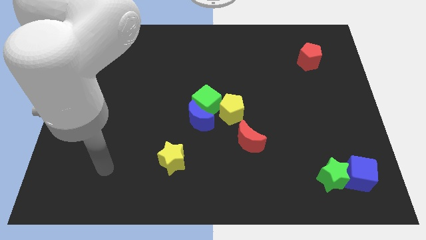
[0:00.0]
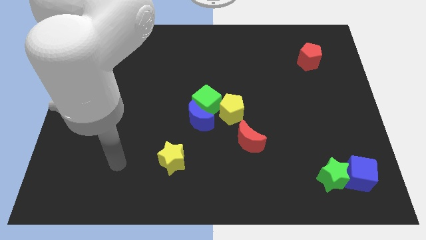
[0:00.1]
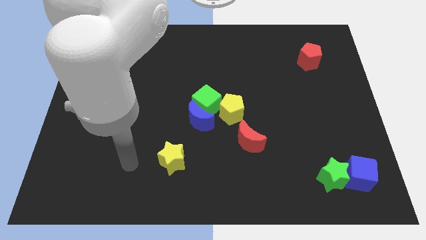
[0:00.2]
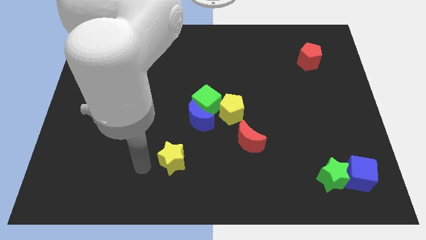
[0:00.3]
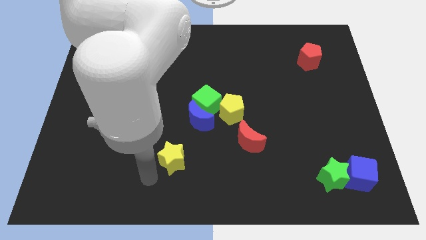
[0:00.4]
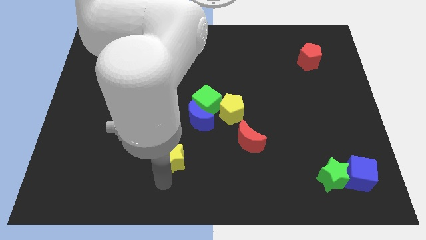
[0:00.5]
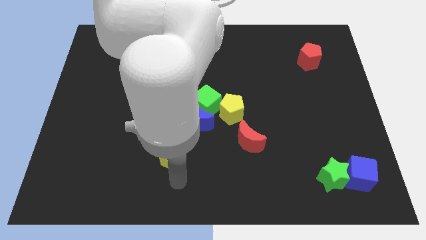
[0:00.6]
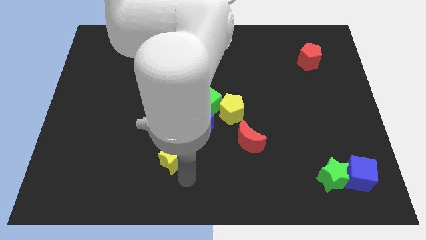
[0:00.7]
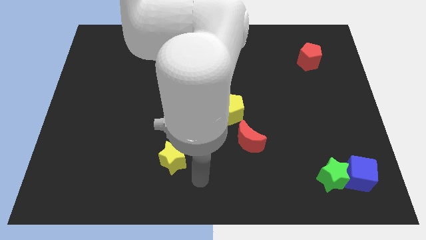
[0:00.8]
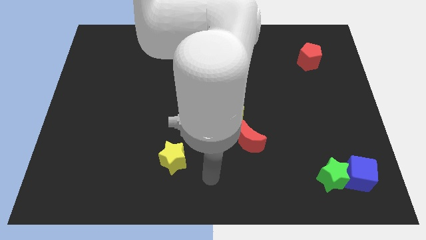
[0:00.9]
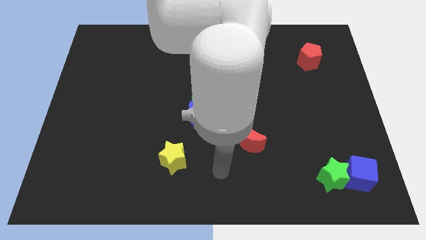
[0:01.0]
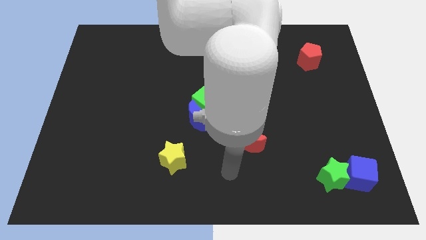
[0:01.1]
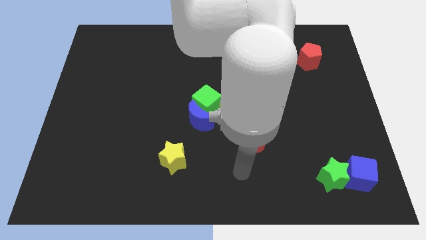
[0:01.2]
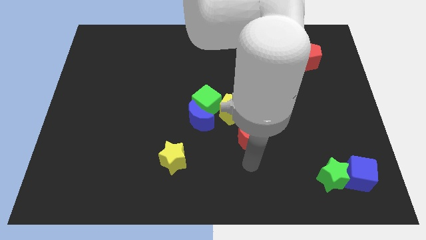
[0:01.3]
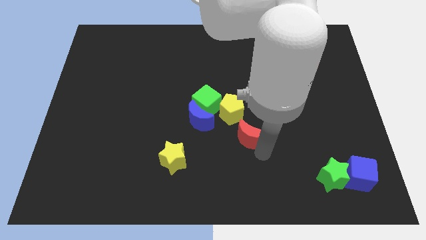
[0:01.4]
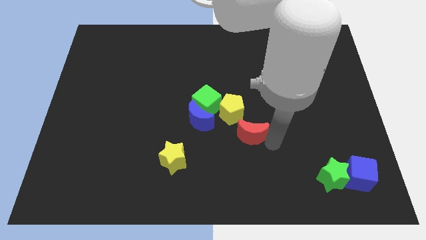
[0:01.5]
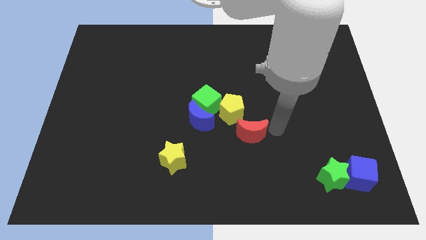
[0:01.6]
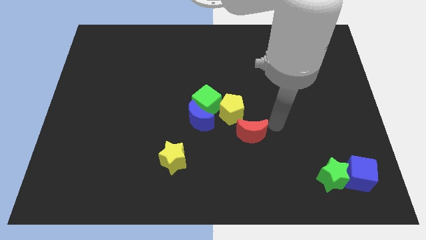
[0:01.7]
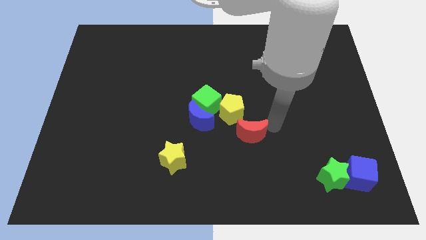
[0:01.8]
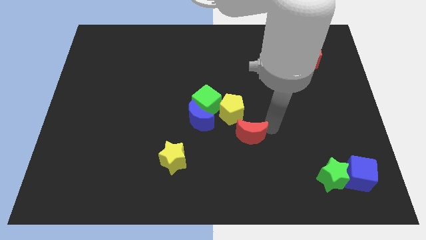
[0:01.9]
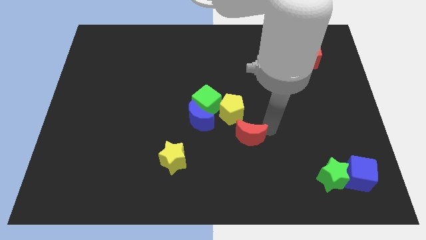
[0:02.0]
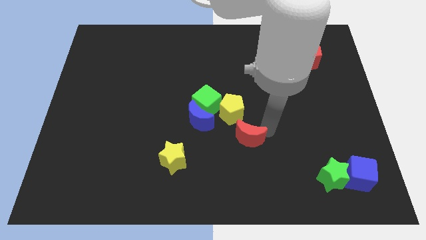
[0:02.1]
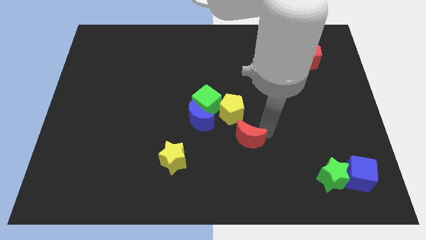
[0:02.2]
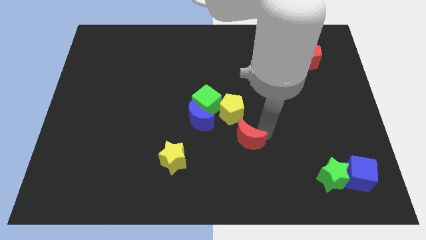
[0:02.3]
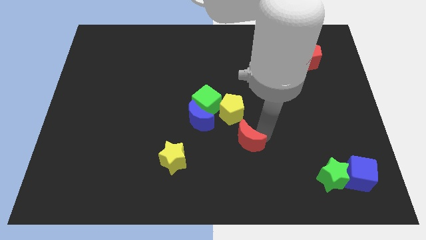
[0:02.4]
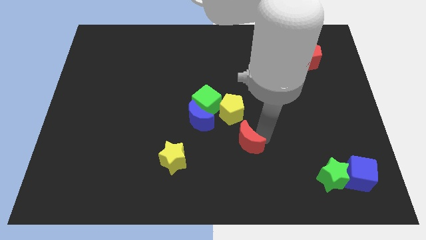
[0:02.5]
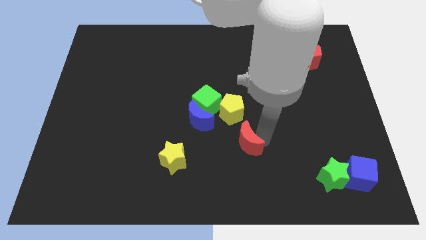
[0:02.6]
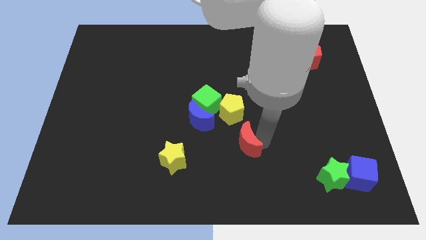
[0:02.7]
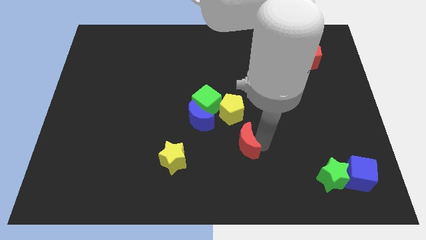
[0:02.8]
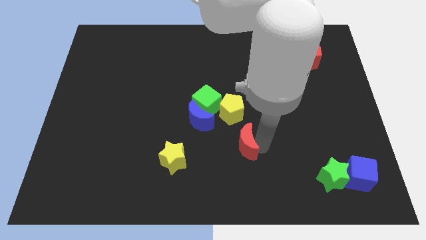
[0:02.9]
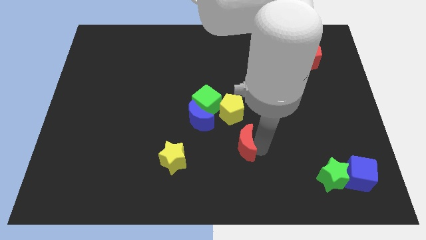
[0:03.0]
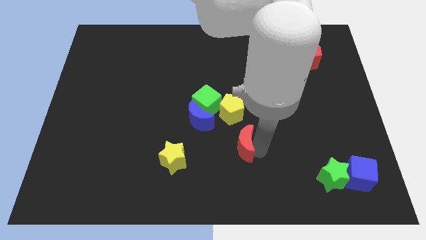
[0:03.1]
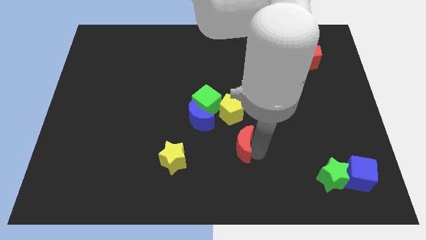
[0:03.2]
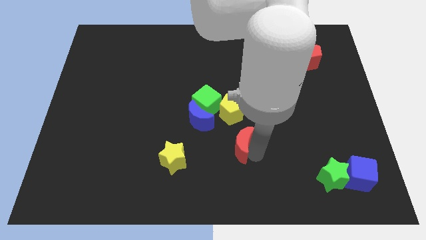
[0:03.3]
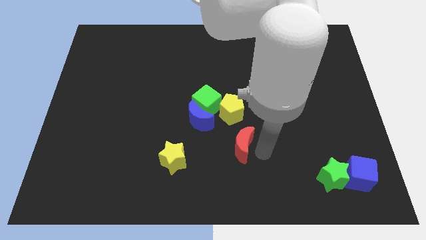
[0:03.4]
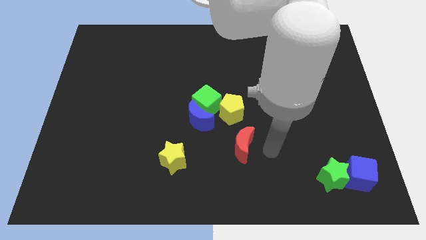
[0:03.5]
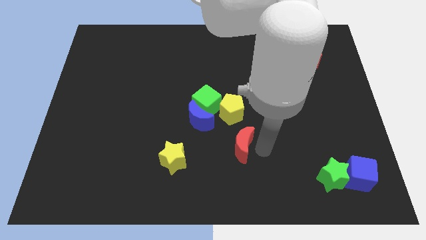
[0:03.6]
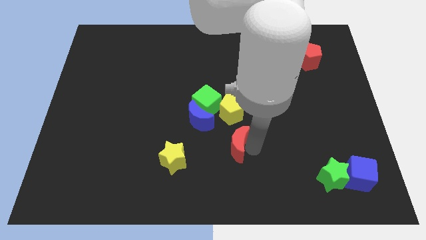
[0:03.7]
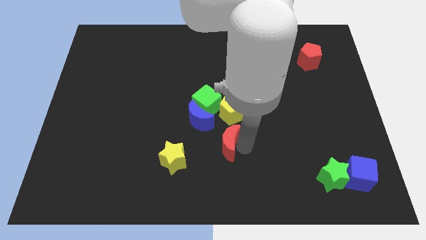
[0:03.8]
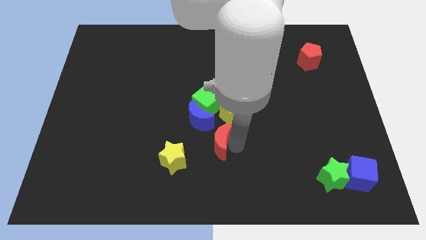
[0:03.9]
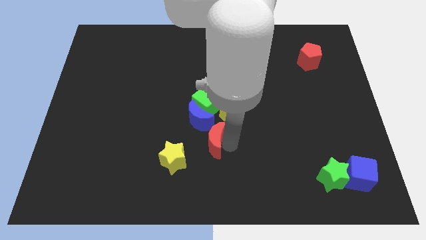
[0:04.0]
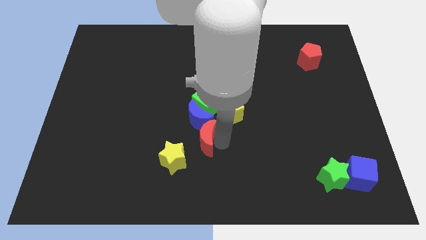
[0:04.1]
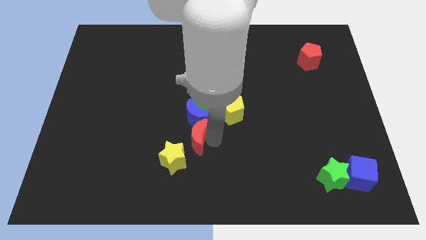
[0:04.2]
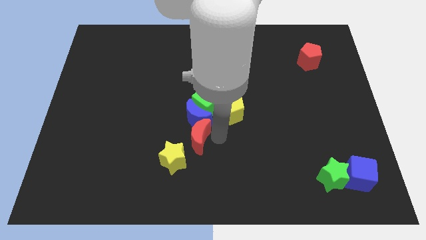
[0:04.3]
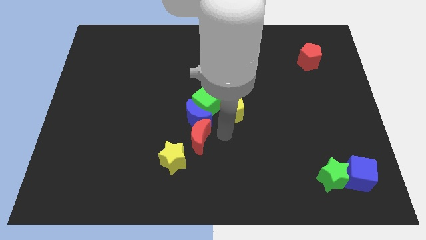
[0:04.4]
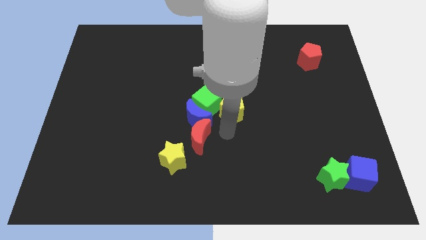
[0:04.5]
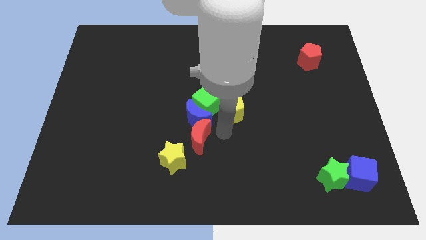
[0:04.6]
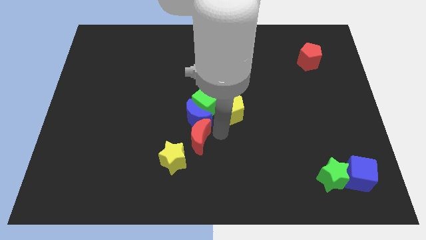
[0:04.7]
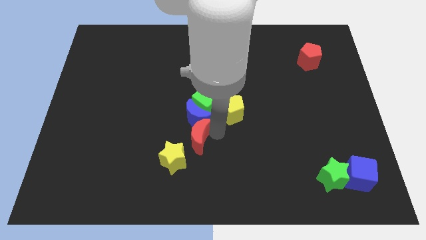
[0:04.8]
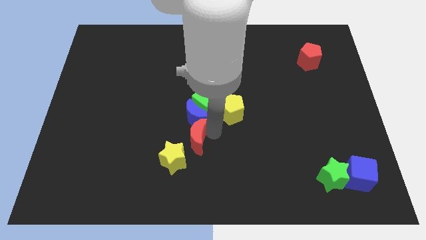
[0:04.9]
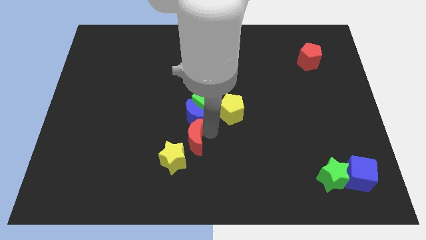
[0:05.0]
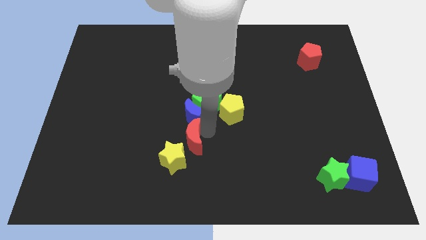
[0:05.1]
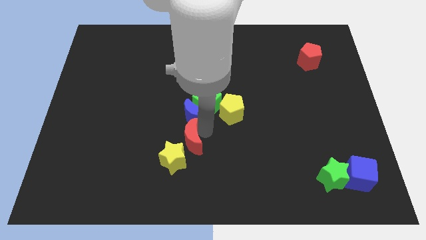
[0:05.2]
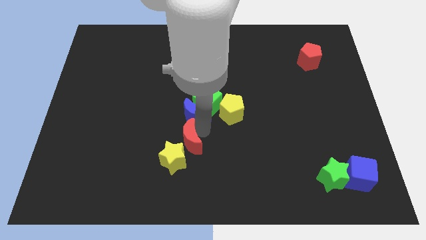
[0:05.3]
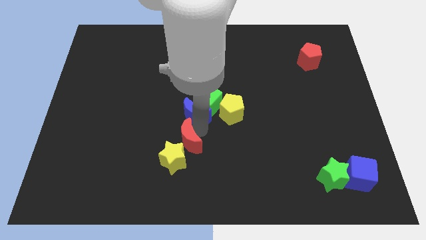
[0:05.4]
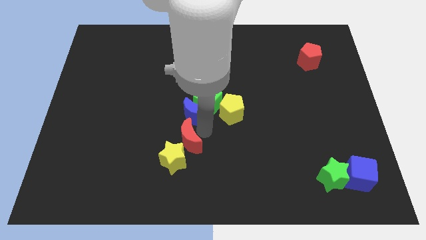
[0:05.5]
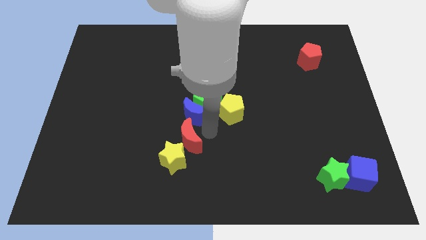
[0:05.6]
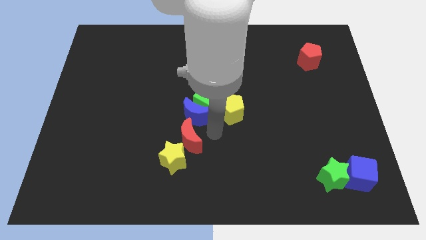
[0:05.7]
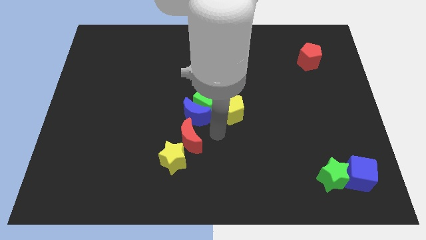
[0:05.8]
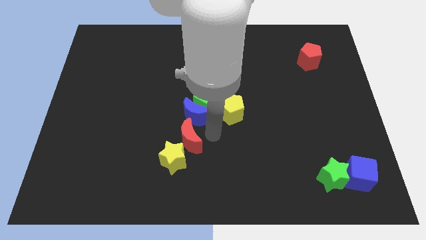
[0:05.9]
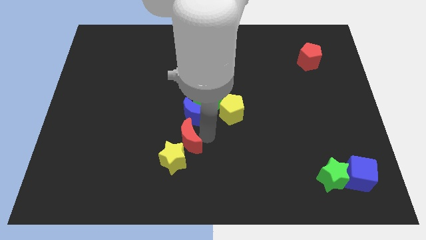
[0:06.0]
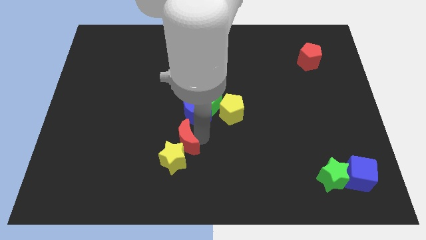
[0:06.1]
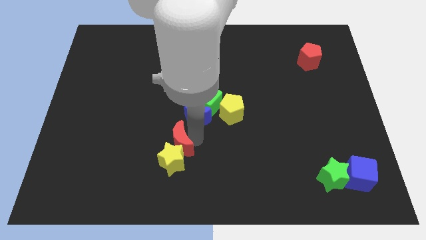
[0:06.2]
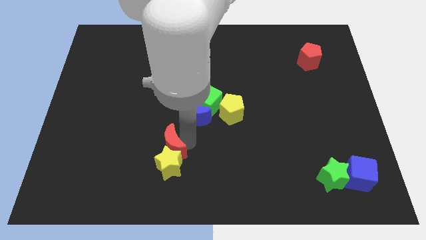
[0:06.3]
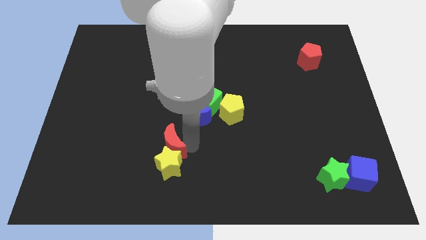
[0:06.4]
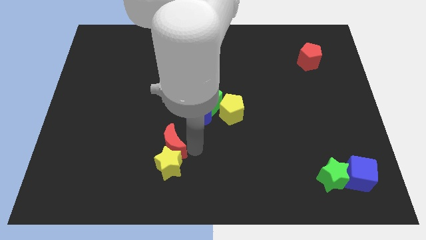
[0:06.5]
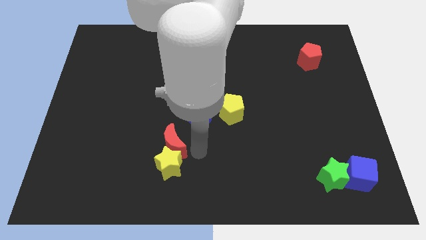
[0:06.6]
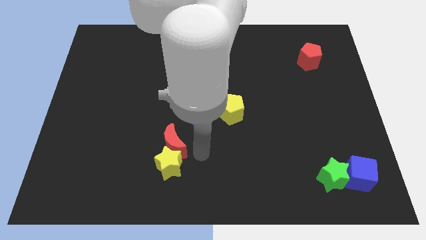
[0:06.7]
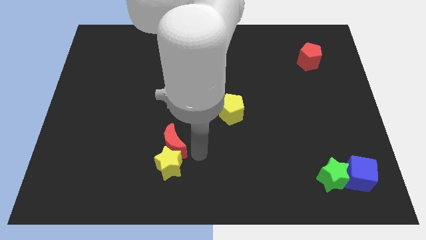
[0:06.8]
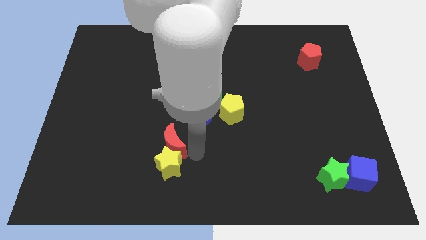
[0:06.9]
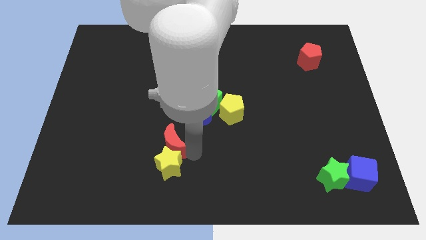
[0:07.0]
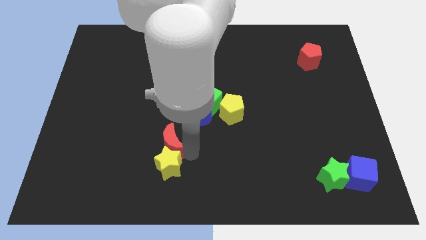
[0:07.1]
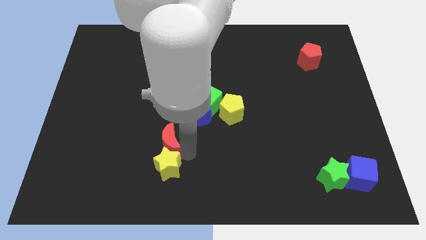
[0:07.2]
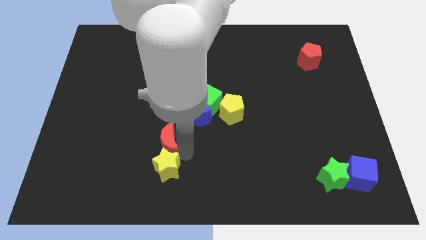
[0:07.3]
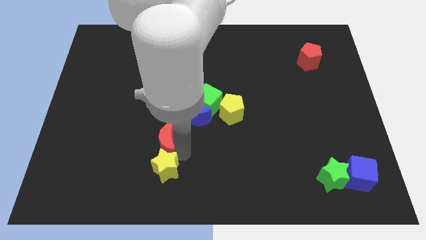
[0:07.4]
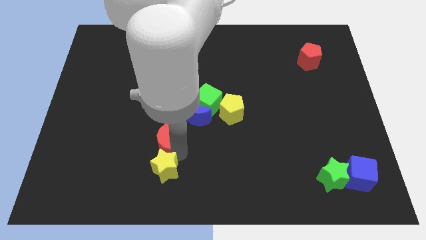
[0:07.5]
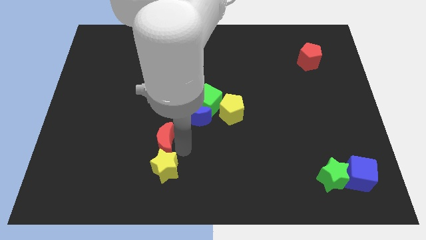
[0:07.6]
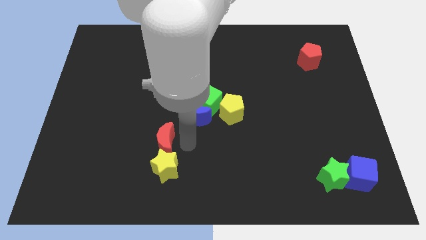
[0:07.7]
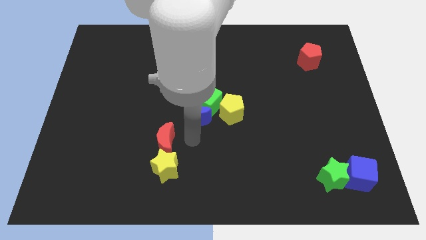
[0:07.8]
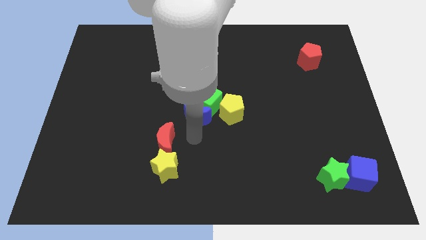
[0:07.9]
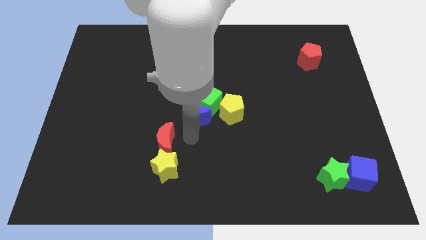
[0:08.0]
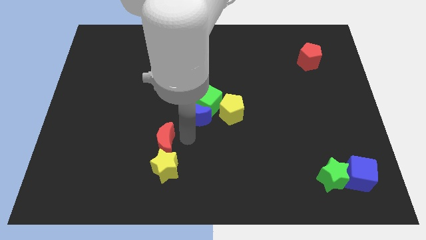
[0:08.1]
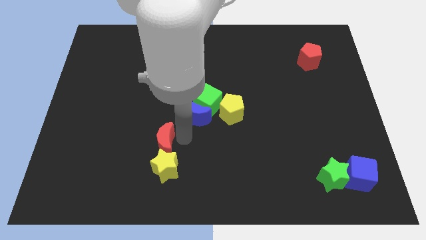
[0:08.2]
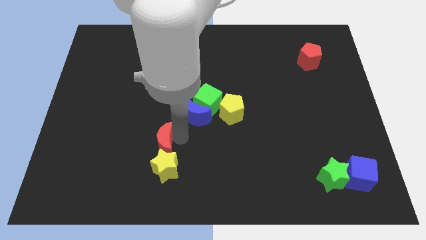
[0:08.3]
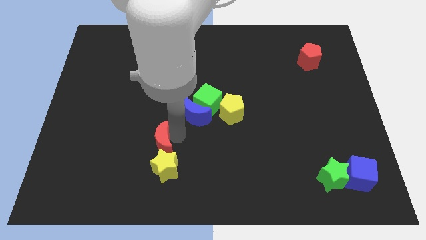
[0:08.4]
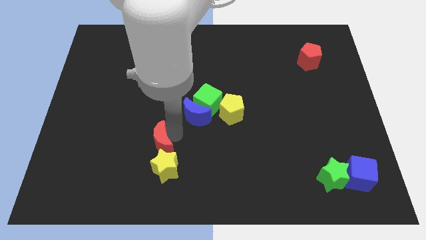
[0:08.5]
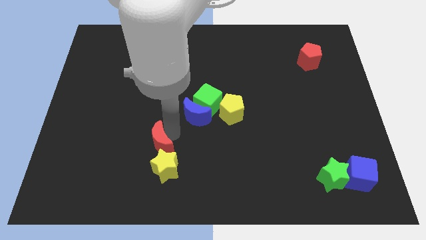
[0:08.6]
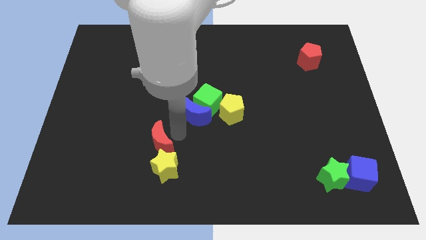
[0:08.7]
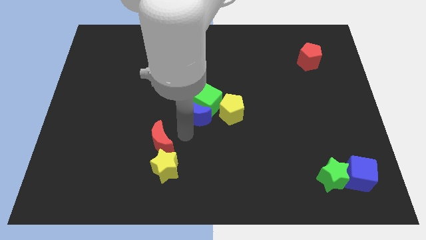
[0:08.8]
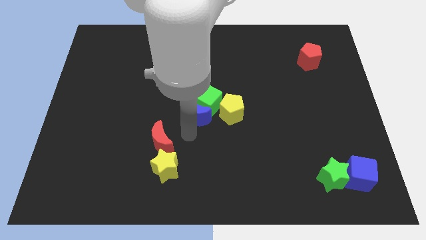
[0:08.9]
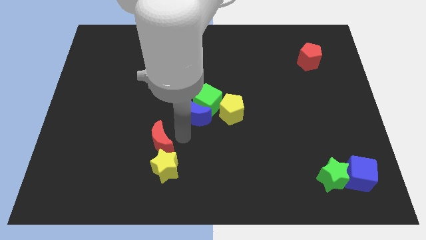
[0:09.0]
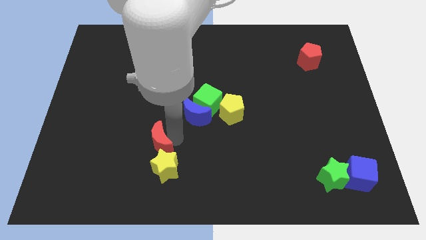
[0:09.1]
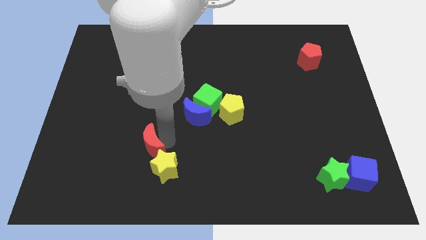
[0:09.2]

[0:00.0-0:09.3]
push the red moon left
